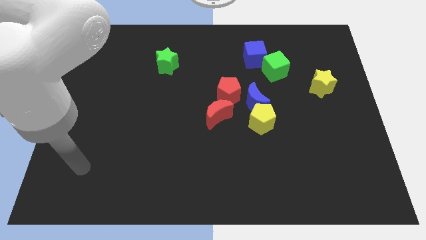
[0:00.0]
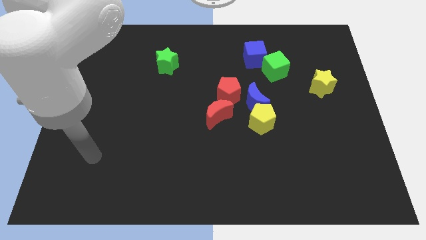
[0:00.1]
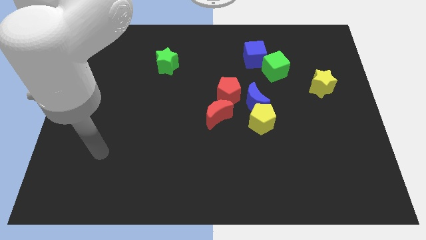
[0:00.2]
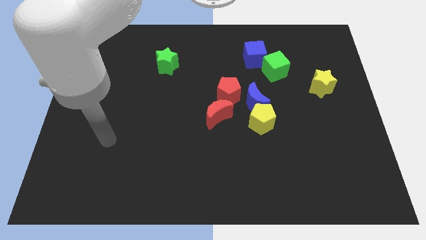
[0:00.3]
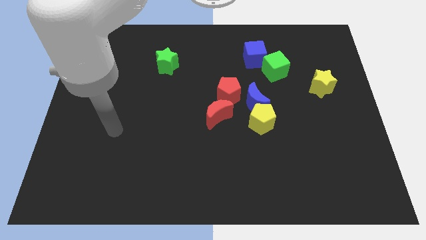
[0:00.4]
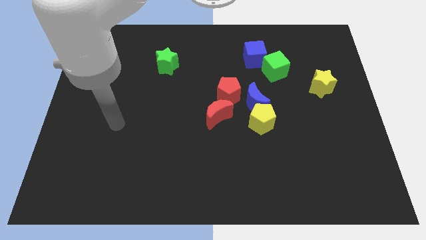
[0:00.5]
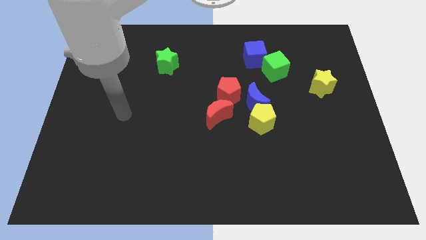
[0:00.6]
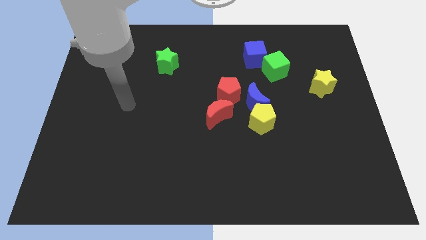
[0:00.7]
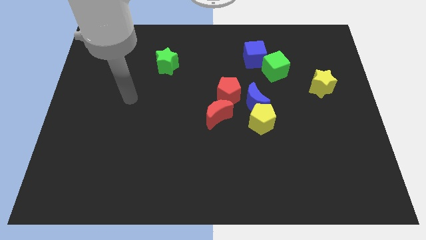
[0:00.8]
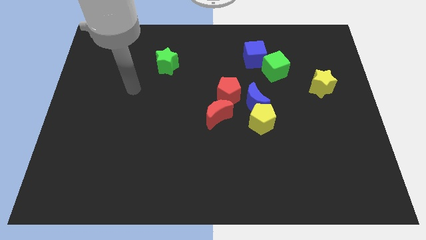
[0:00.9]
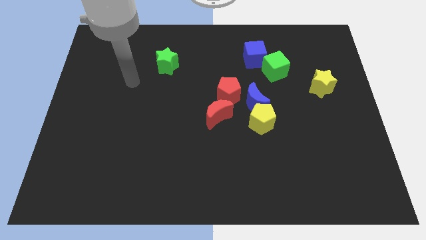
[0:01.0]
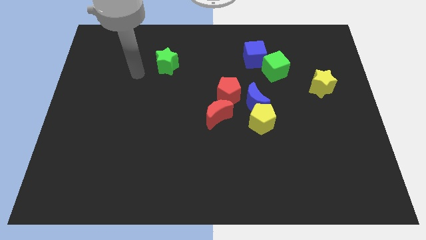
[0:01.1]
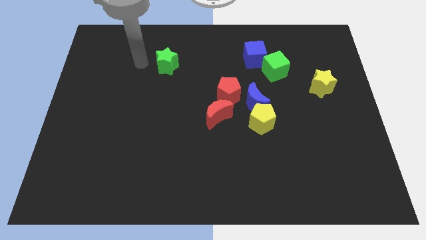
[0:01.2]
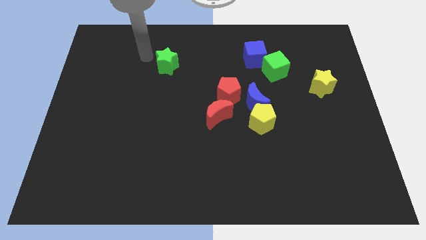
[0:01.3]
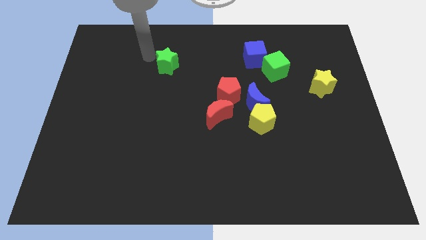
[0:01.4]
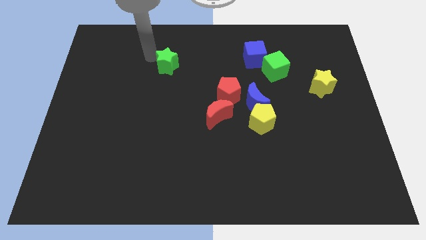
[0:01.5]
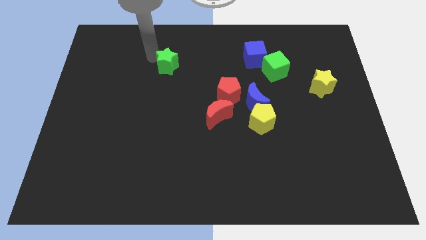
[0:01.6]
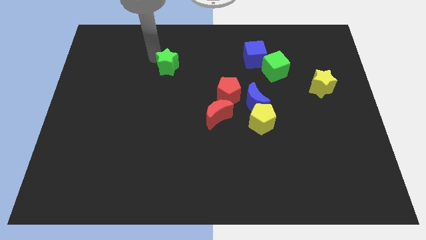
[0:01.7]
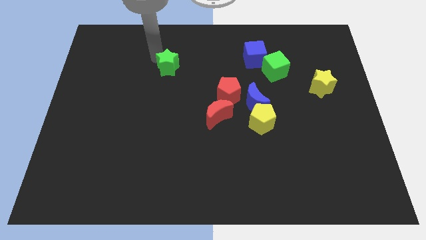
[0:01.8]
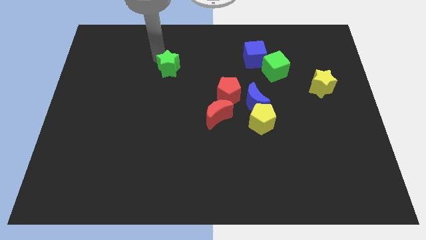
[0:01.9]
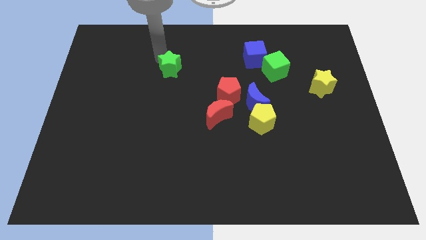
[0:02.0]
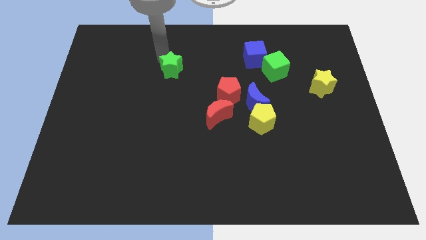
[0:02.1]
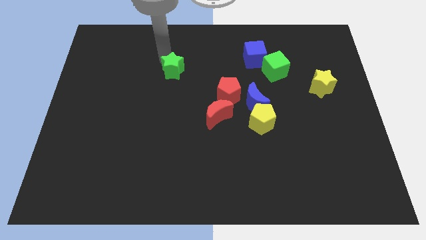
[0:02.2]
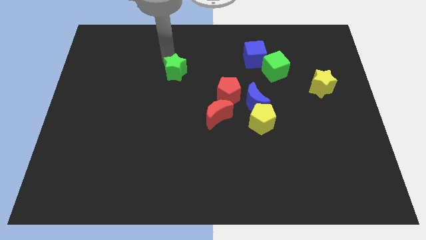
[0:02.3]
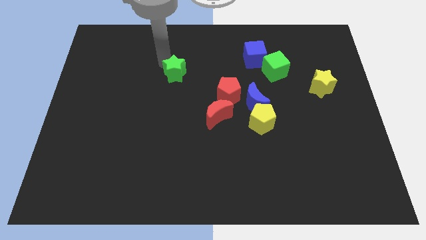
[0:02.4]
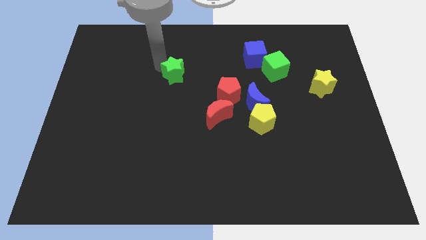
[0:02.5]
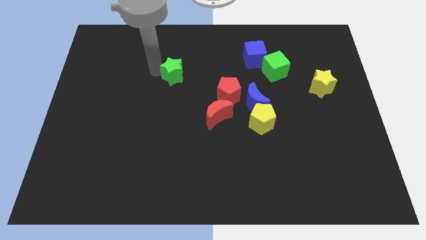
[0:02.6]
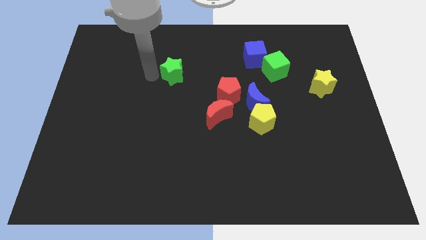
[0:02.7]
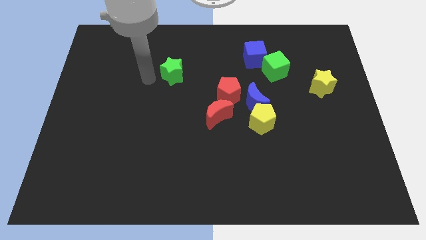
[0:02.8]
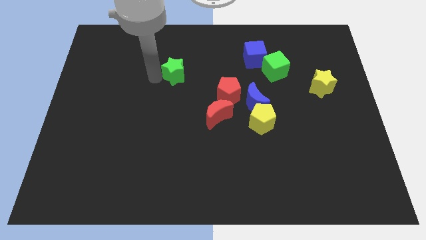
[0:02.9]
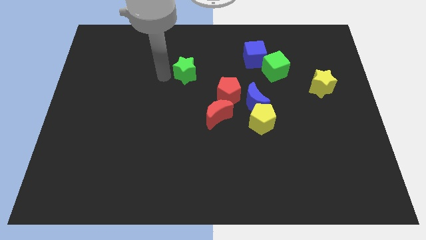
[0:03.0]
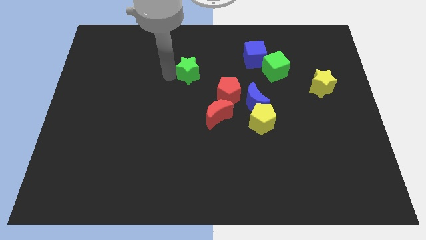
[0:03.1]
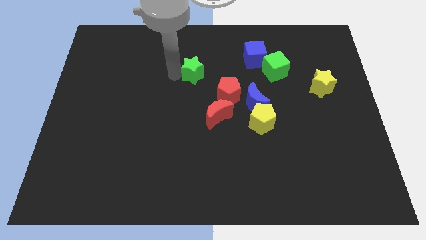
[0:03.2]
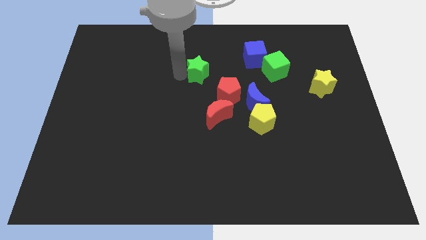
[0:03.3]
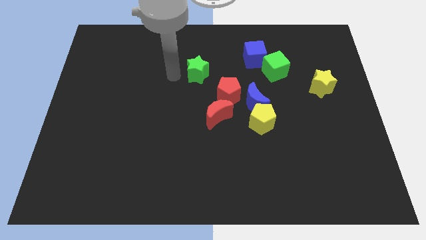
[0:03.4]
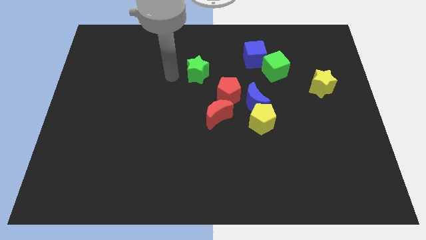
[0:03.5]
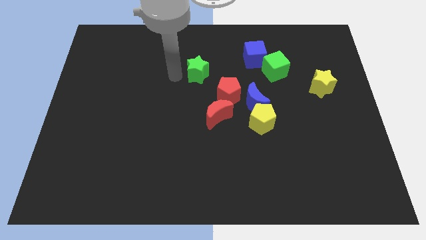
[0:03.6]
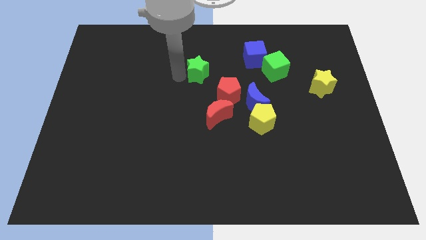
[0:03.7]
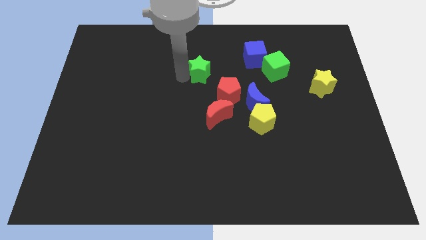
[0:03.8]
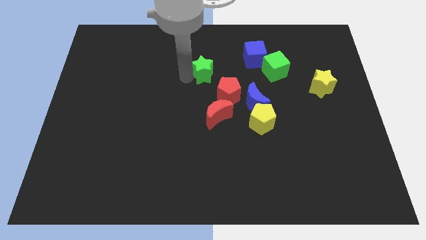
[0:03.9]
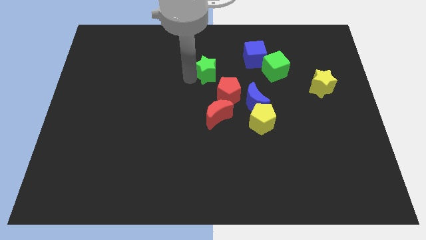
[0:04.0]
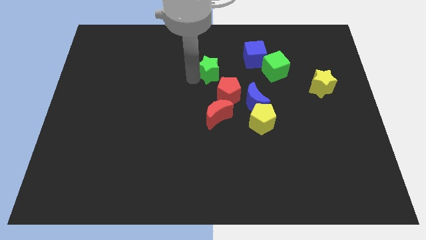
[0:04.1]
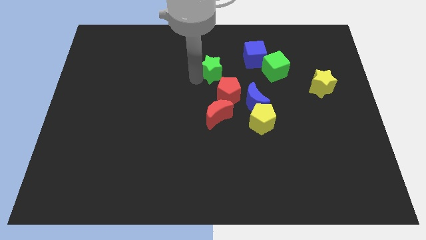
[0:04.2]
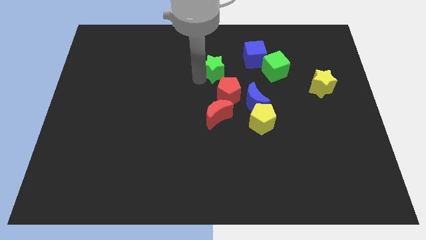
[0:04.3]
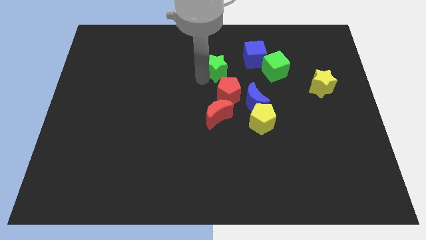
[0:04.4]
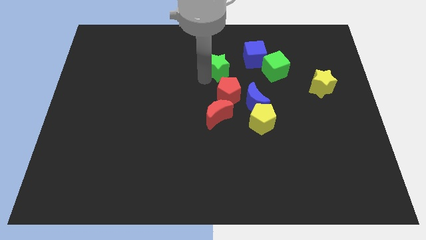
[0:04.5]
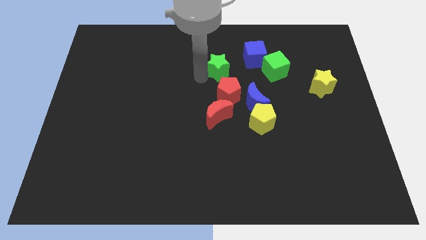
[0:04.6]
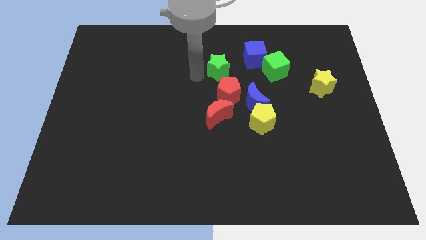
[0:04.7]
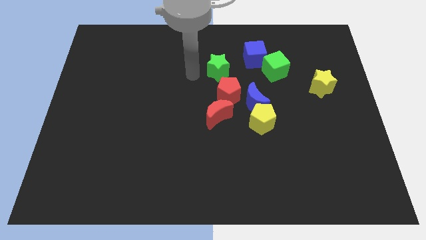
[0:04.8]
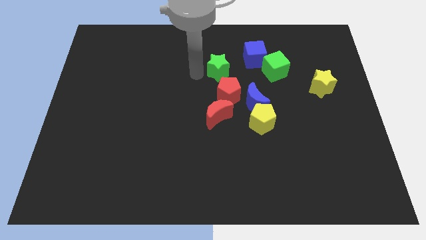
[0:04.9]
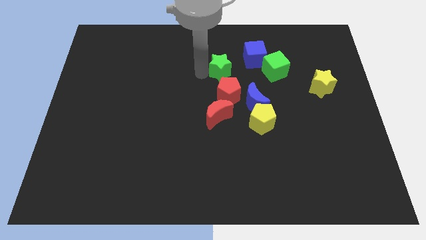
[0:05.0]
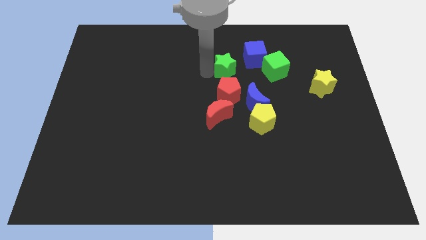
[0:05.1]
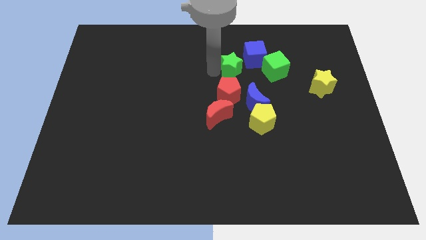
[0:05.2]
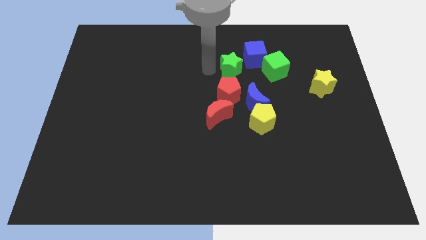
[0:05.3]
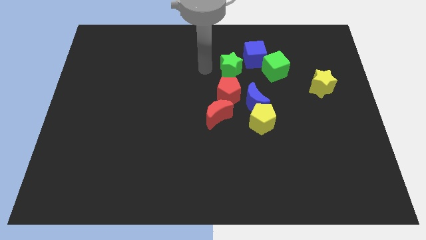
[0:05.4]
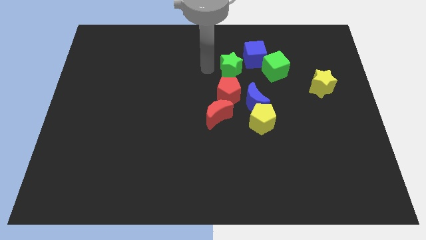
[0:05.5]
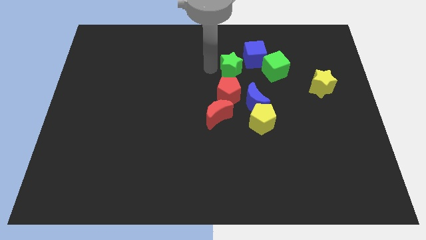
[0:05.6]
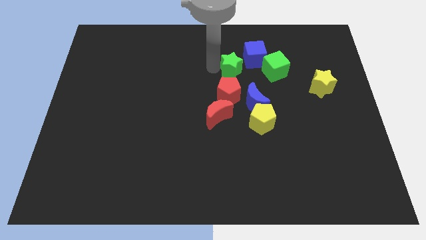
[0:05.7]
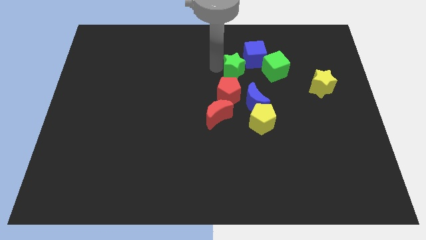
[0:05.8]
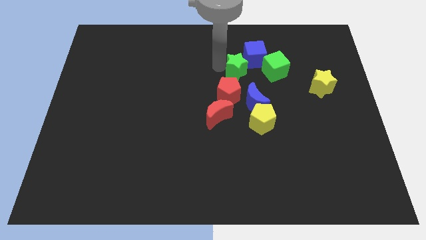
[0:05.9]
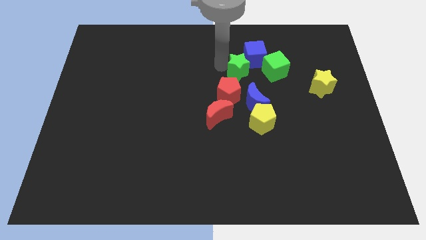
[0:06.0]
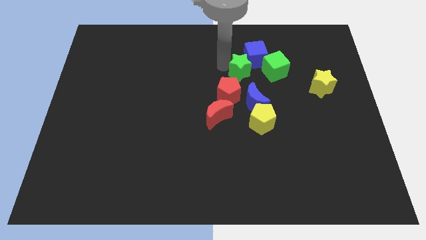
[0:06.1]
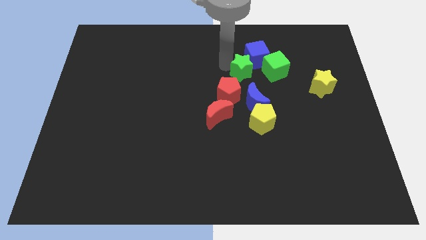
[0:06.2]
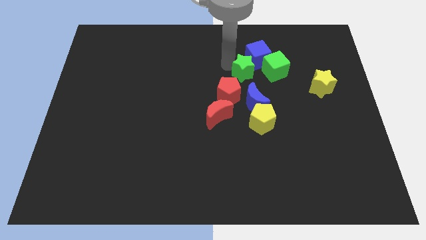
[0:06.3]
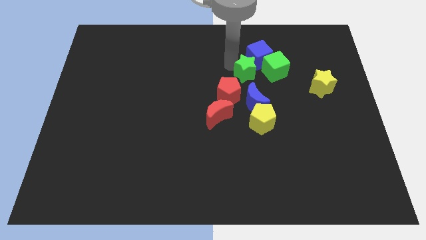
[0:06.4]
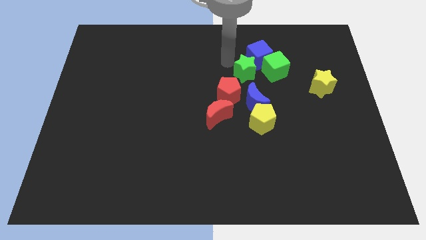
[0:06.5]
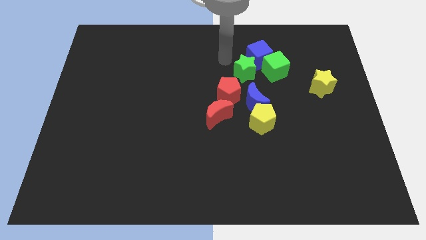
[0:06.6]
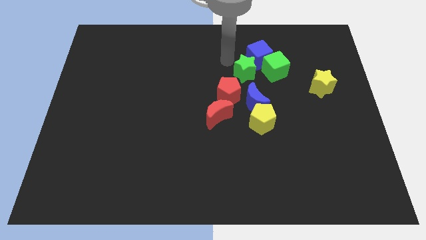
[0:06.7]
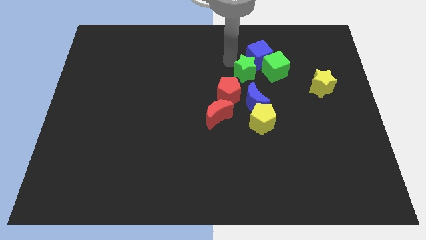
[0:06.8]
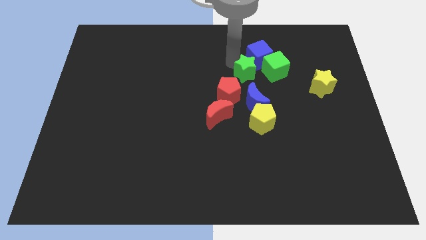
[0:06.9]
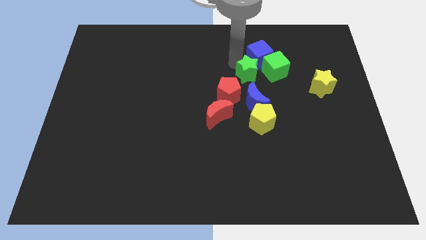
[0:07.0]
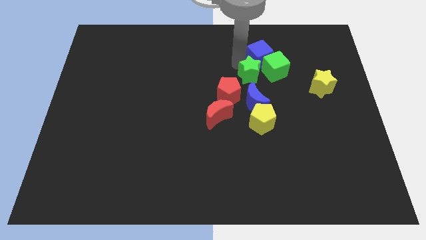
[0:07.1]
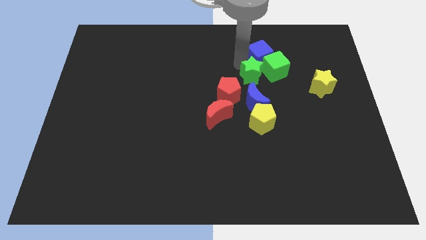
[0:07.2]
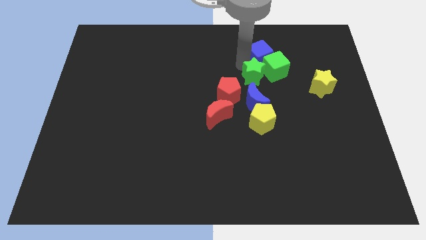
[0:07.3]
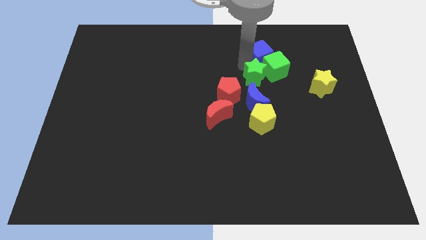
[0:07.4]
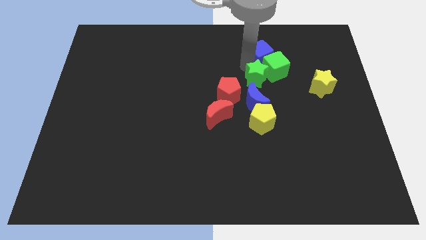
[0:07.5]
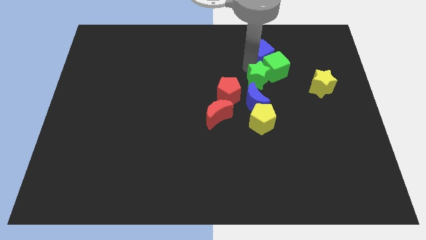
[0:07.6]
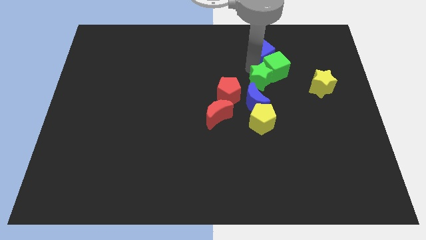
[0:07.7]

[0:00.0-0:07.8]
push the green star to the right side of the red pentagon
